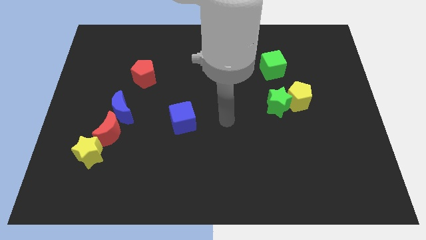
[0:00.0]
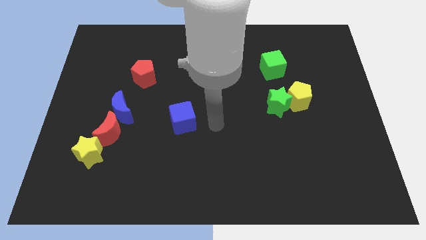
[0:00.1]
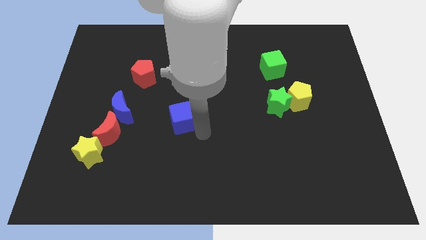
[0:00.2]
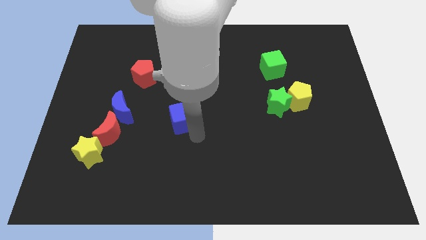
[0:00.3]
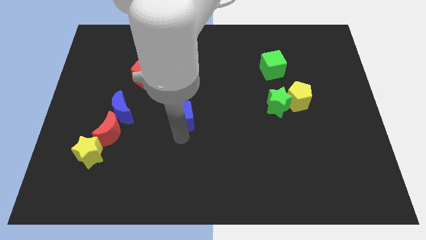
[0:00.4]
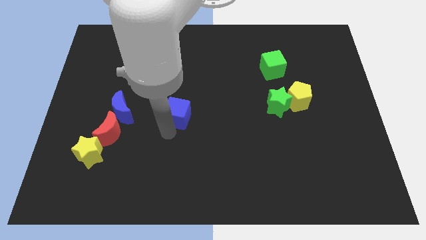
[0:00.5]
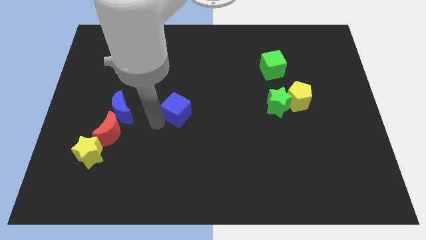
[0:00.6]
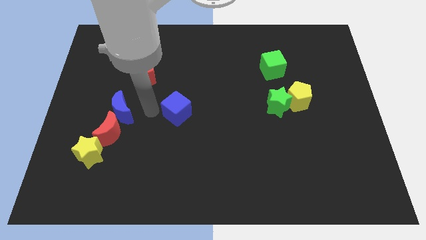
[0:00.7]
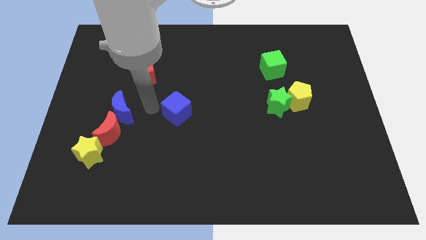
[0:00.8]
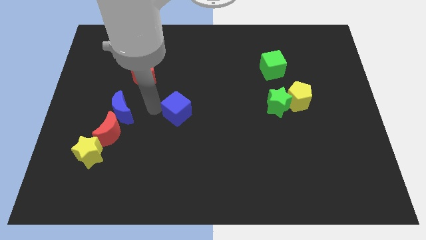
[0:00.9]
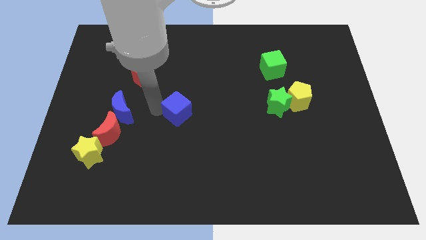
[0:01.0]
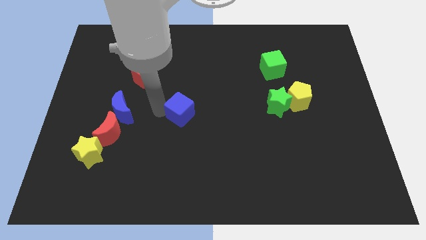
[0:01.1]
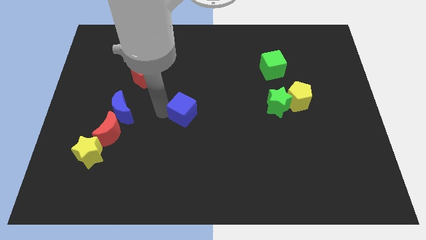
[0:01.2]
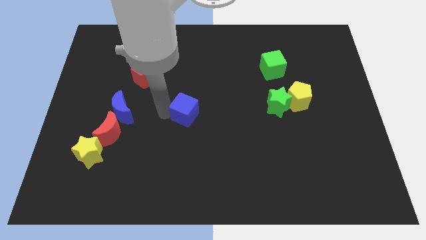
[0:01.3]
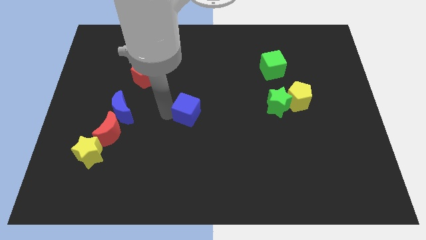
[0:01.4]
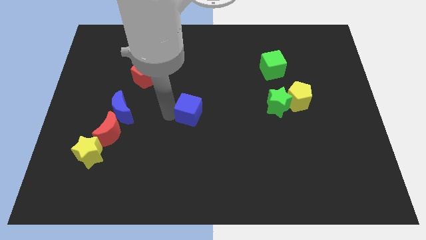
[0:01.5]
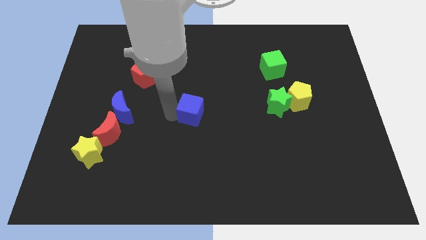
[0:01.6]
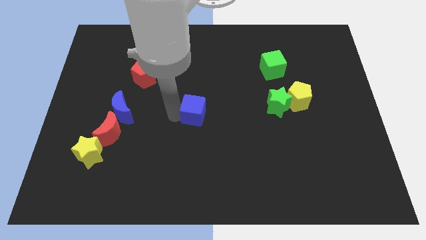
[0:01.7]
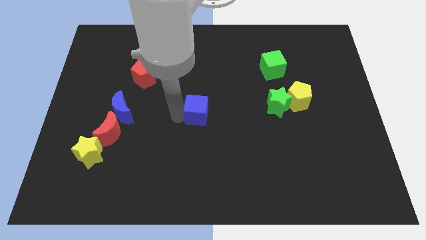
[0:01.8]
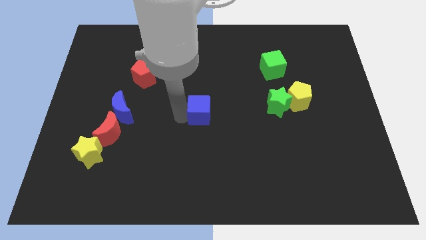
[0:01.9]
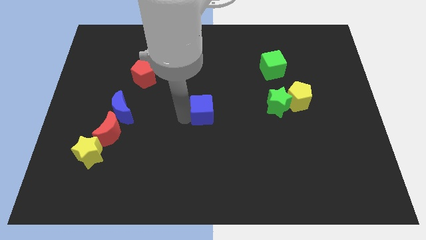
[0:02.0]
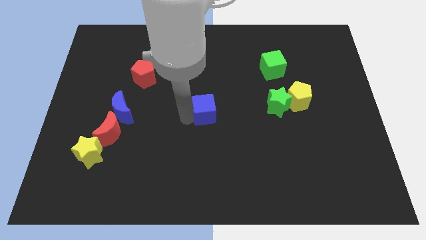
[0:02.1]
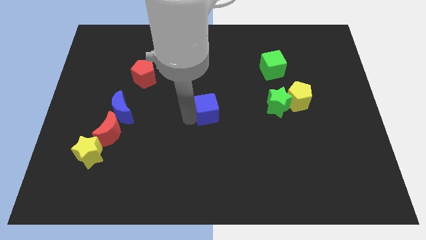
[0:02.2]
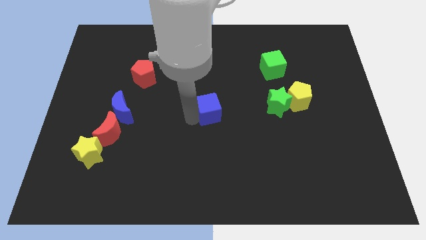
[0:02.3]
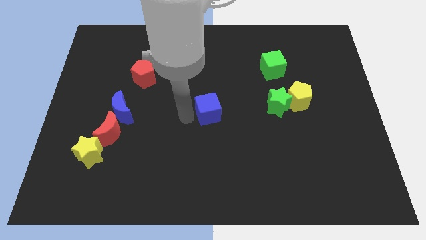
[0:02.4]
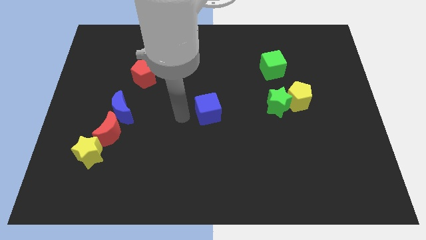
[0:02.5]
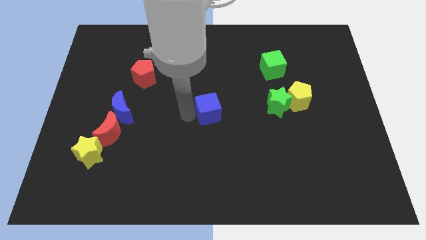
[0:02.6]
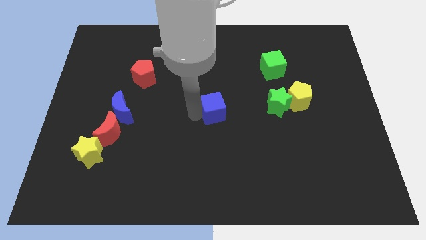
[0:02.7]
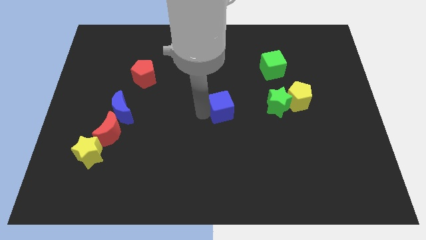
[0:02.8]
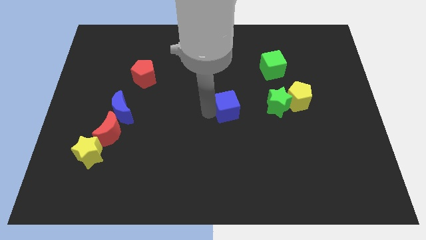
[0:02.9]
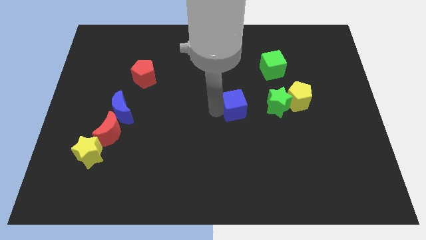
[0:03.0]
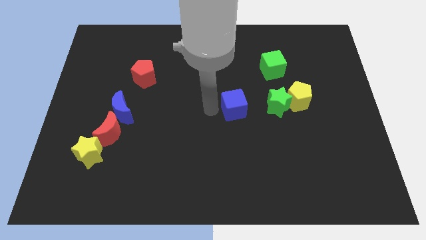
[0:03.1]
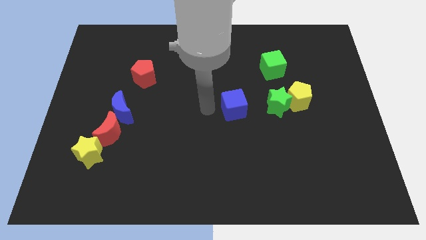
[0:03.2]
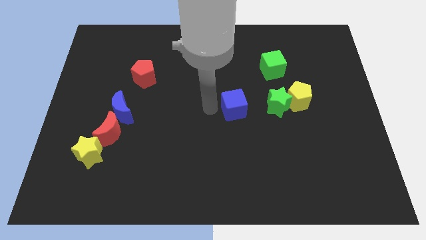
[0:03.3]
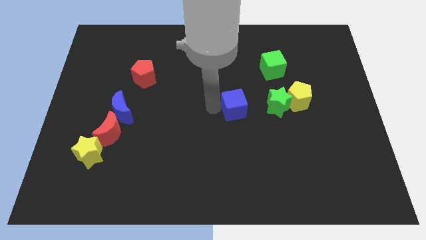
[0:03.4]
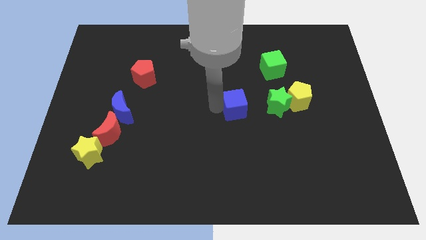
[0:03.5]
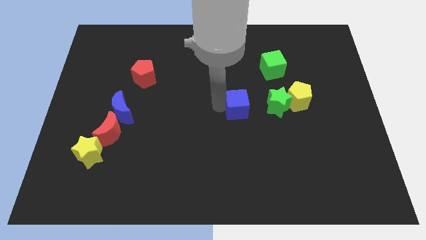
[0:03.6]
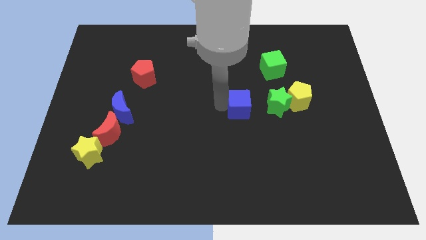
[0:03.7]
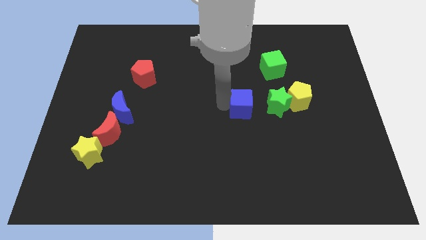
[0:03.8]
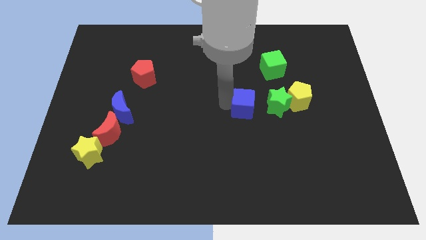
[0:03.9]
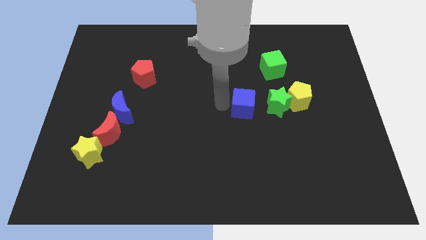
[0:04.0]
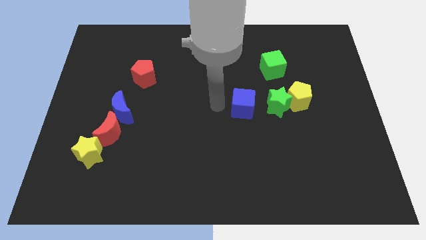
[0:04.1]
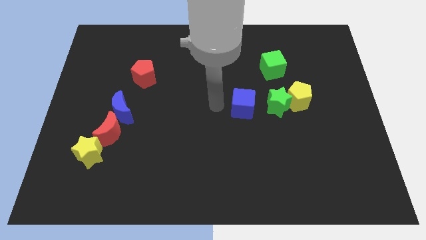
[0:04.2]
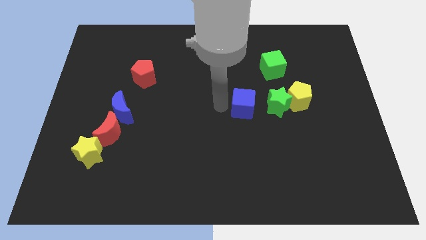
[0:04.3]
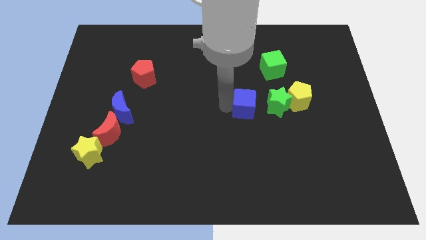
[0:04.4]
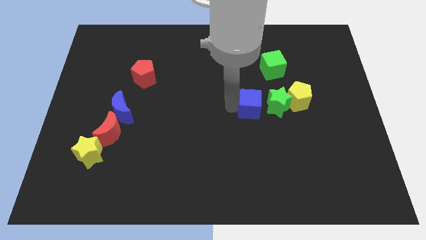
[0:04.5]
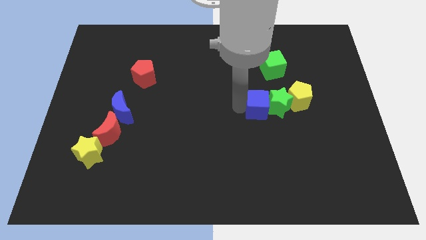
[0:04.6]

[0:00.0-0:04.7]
put the blue cube to the green star

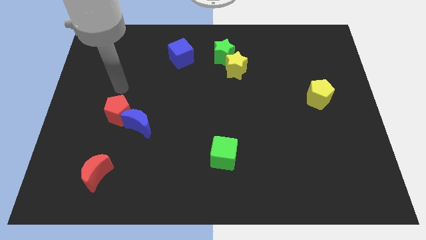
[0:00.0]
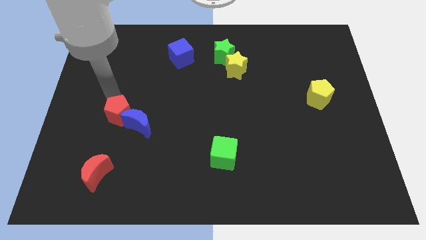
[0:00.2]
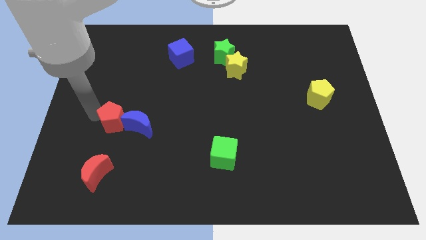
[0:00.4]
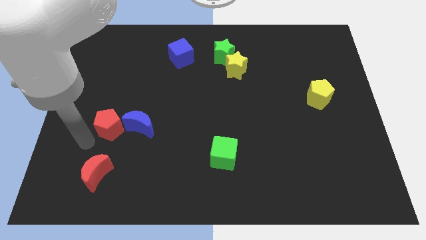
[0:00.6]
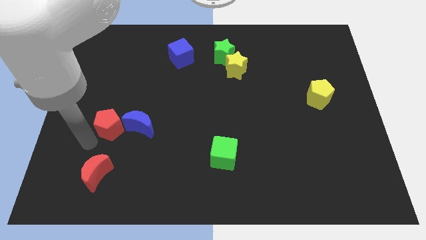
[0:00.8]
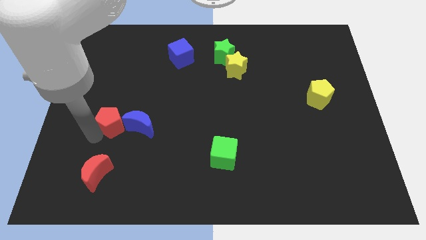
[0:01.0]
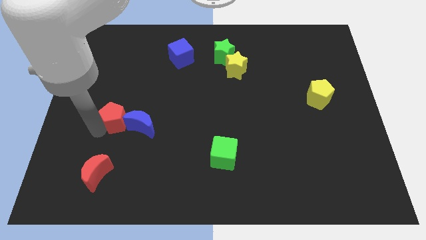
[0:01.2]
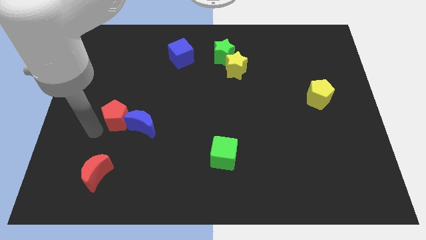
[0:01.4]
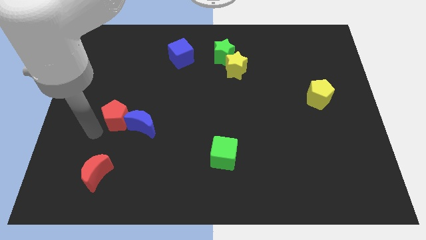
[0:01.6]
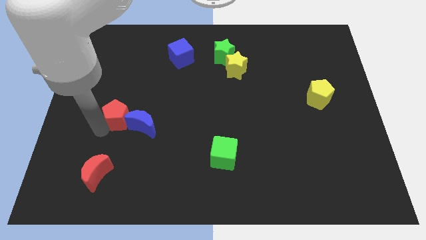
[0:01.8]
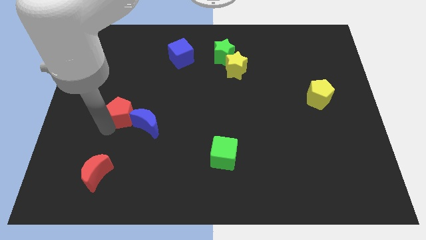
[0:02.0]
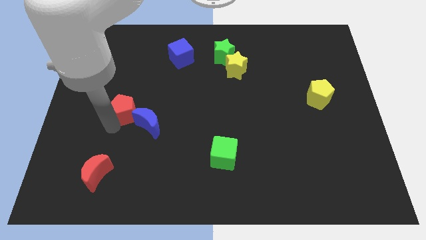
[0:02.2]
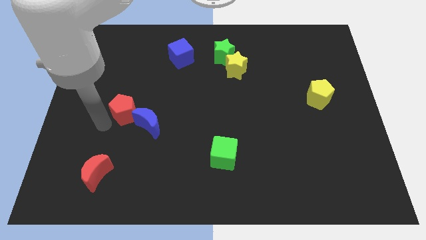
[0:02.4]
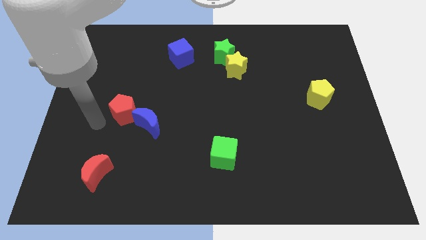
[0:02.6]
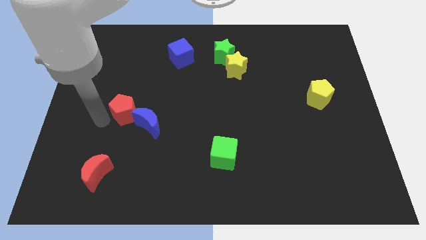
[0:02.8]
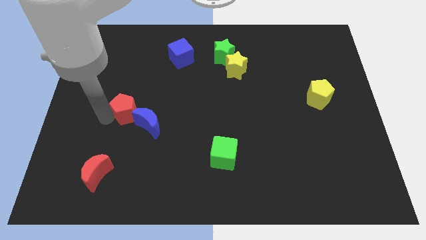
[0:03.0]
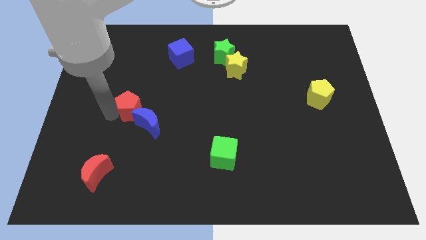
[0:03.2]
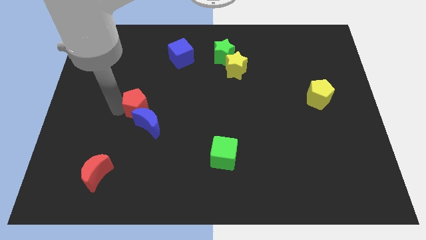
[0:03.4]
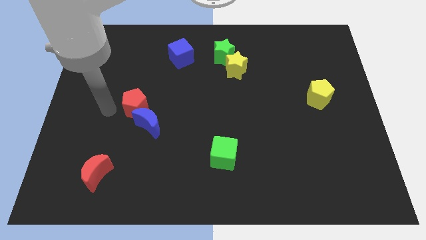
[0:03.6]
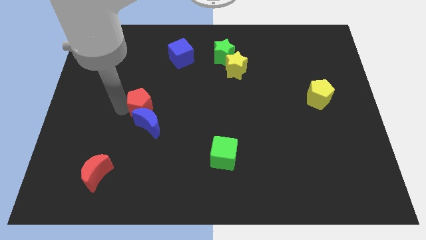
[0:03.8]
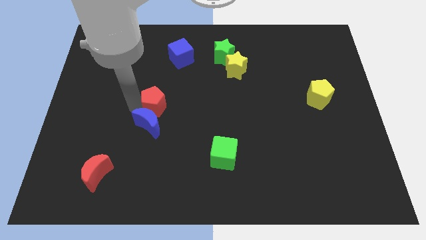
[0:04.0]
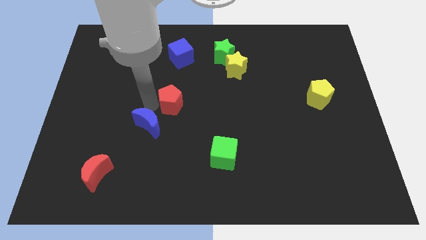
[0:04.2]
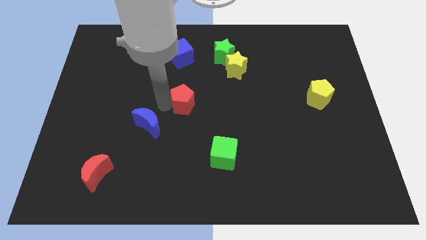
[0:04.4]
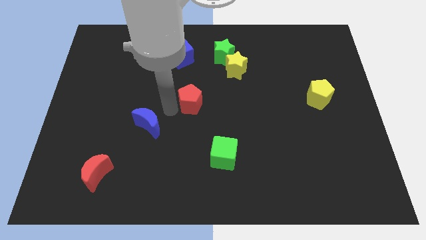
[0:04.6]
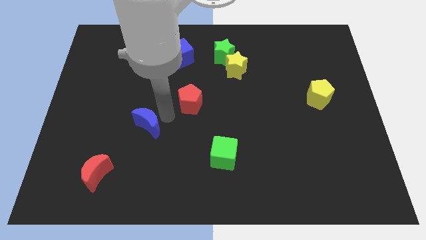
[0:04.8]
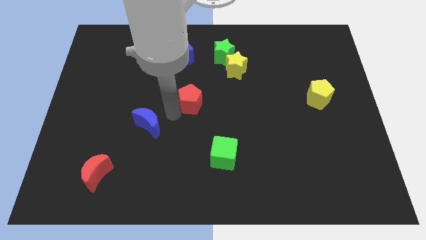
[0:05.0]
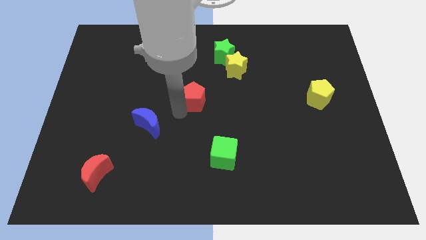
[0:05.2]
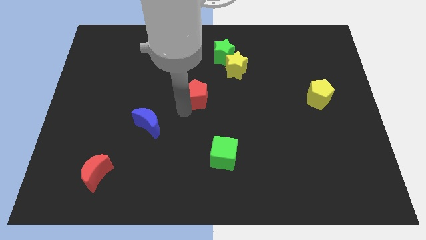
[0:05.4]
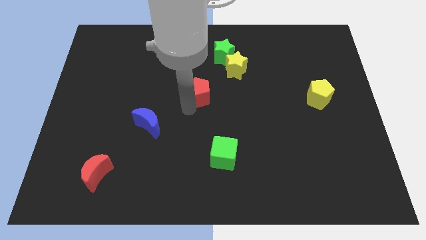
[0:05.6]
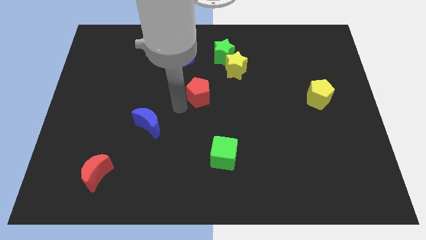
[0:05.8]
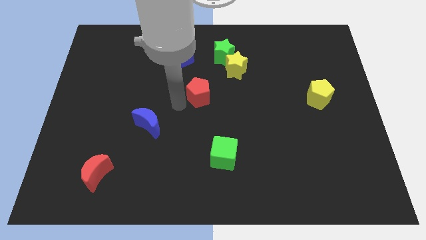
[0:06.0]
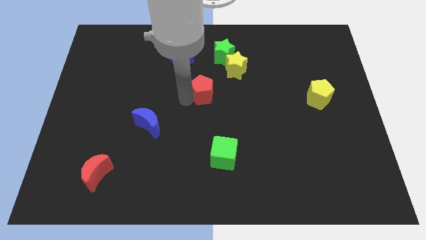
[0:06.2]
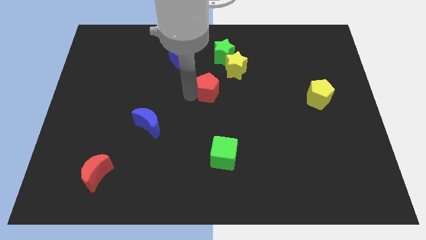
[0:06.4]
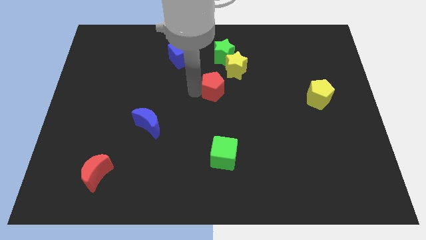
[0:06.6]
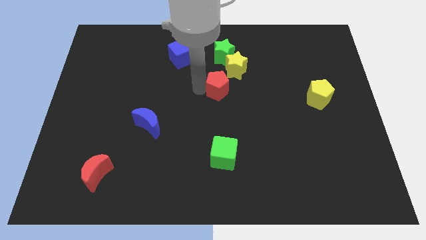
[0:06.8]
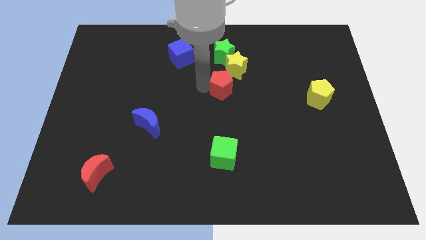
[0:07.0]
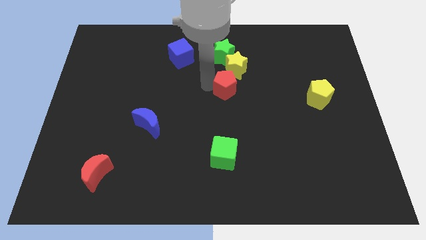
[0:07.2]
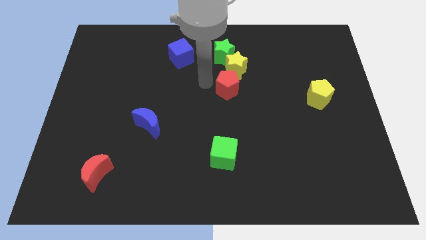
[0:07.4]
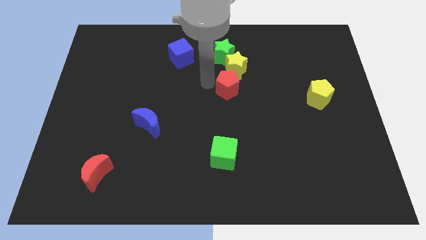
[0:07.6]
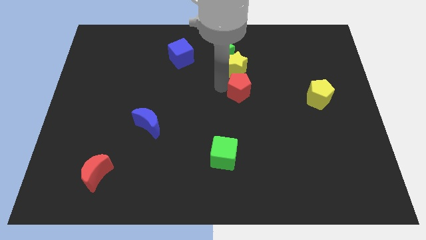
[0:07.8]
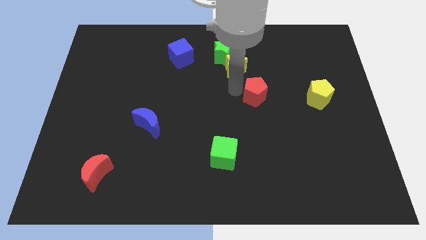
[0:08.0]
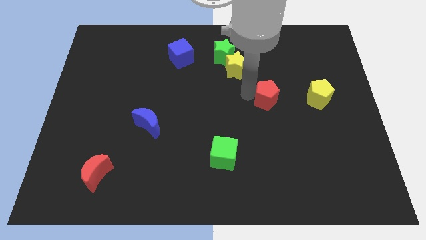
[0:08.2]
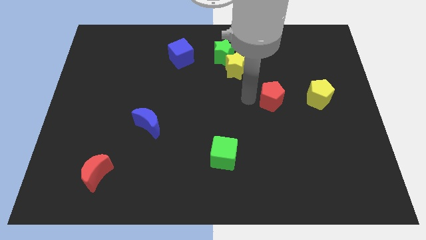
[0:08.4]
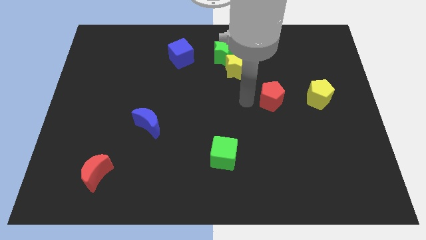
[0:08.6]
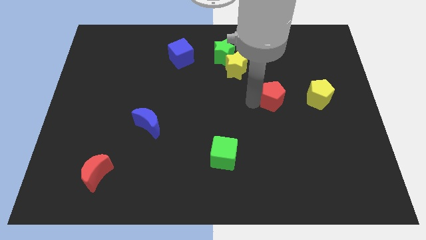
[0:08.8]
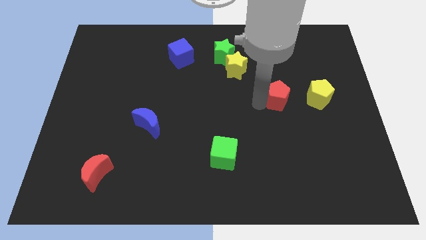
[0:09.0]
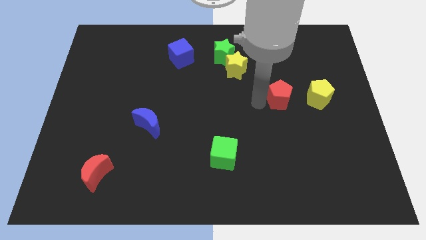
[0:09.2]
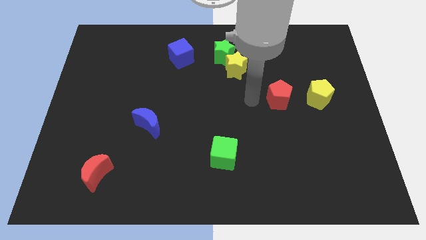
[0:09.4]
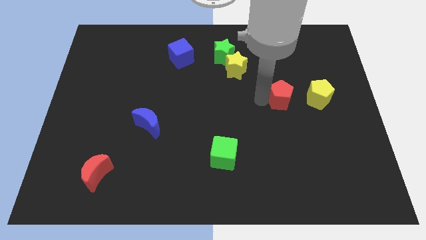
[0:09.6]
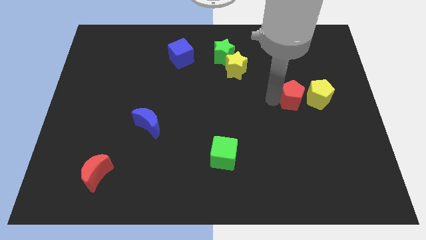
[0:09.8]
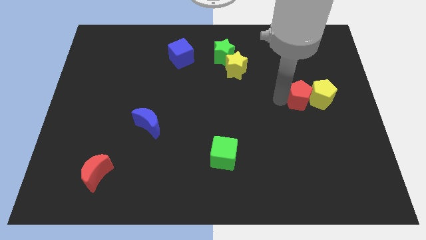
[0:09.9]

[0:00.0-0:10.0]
push the red pentagon towards the yellow pentagon
